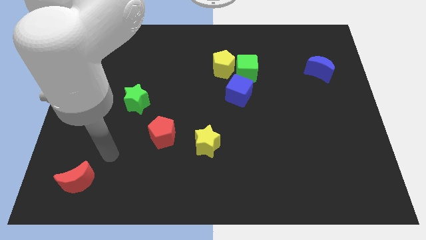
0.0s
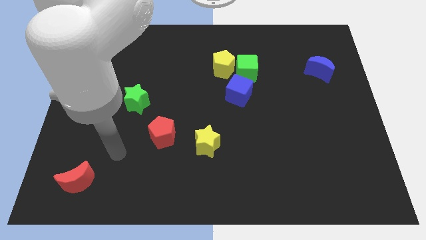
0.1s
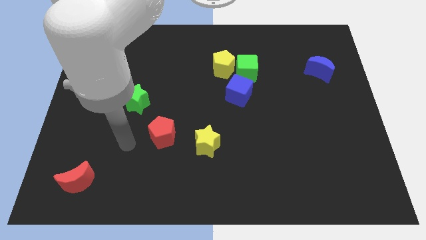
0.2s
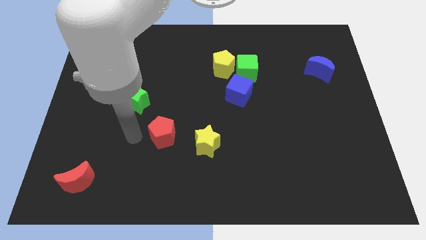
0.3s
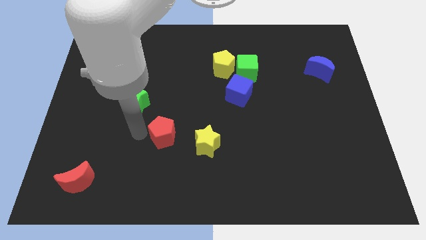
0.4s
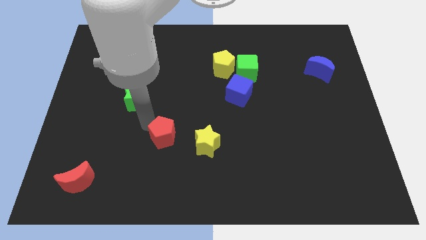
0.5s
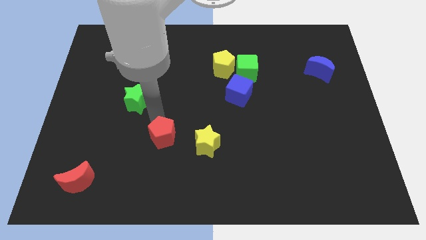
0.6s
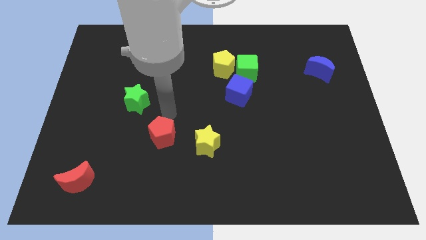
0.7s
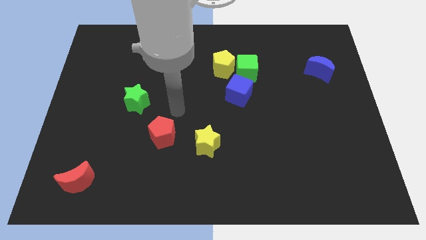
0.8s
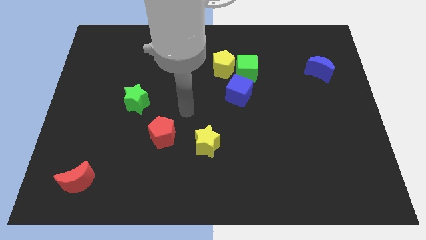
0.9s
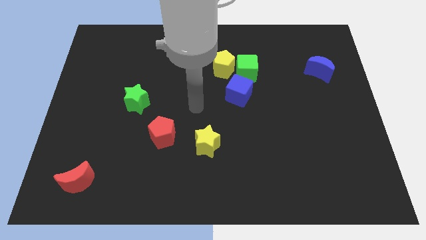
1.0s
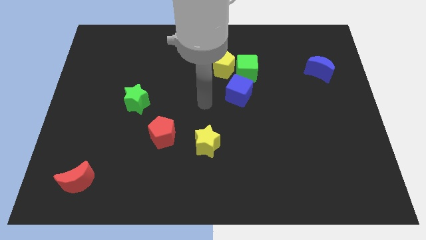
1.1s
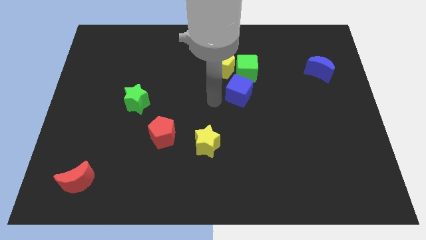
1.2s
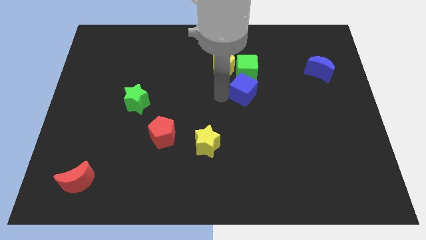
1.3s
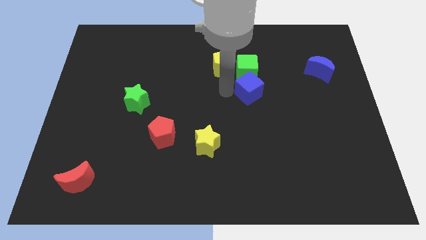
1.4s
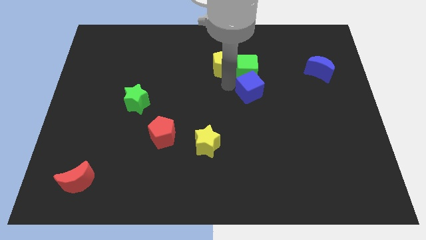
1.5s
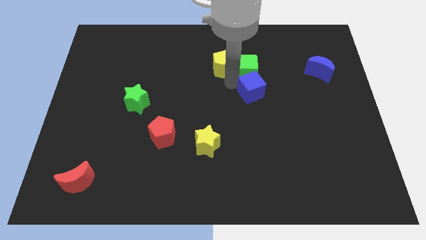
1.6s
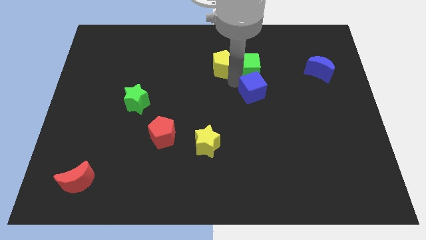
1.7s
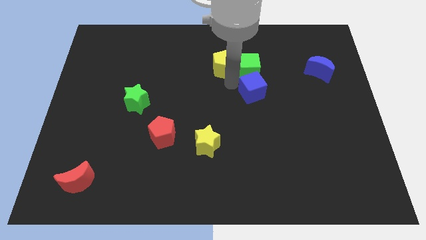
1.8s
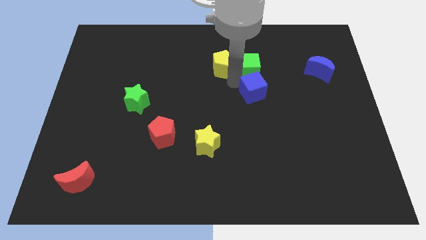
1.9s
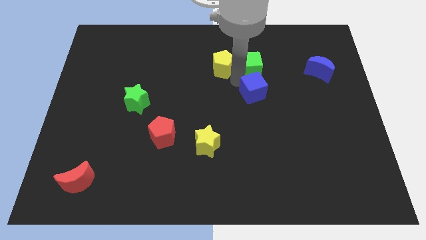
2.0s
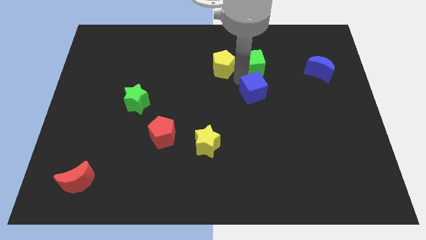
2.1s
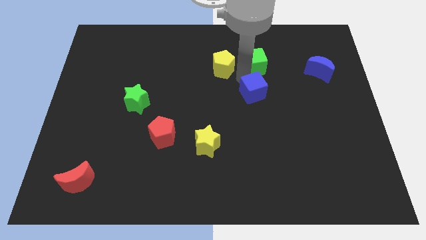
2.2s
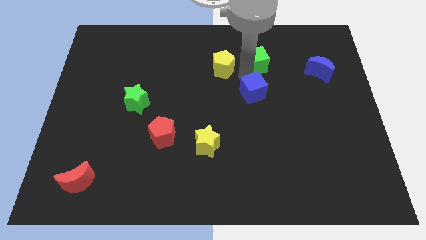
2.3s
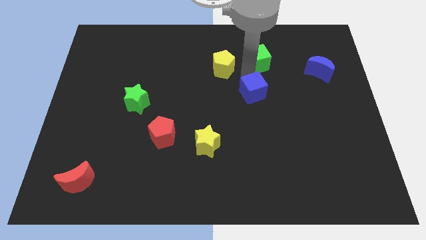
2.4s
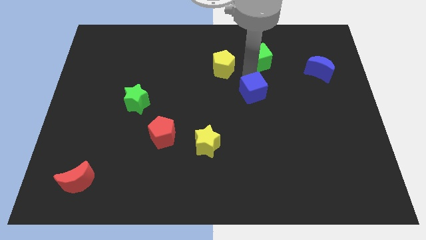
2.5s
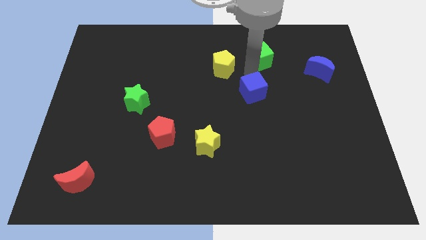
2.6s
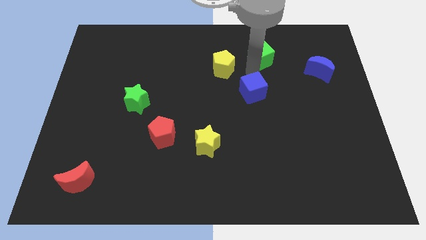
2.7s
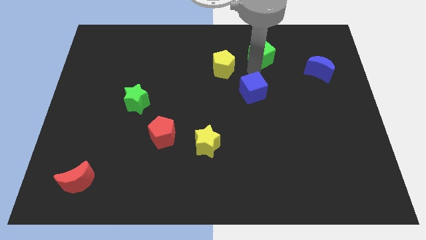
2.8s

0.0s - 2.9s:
pull the green cube apart from the yellow pentagon and blue cube

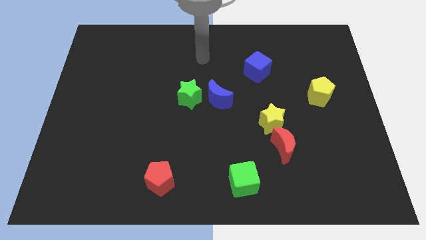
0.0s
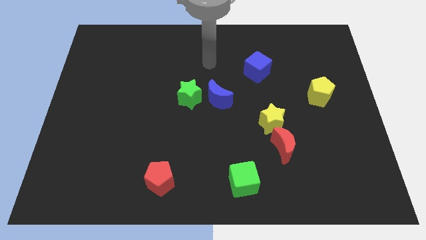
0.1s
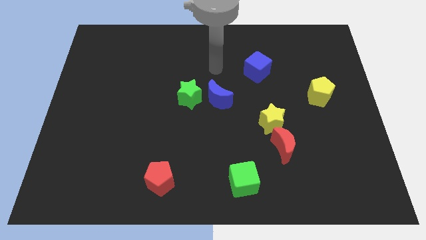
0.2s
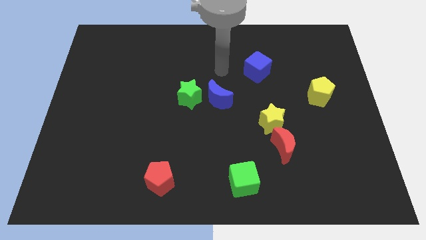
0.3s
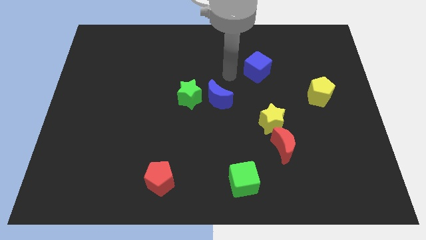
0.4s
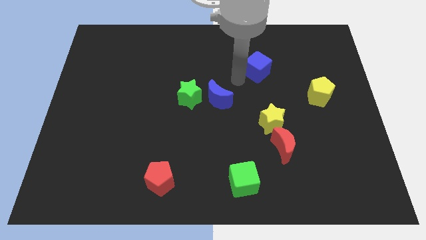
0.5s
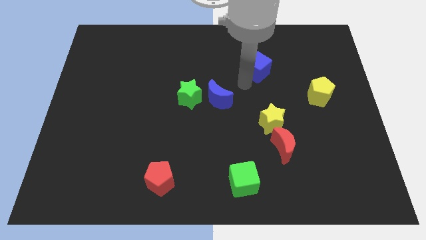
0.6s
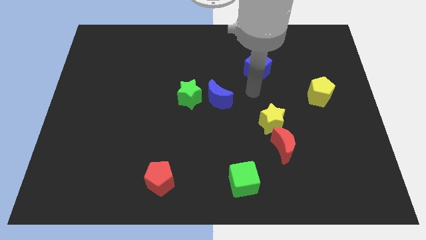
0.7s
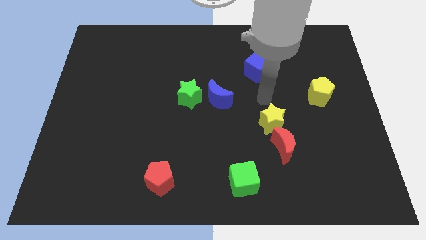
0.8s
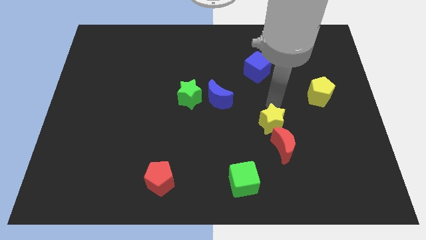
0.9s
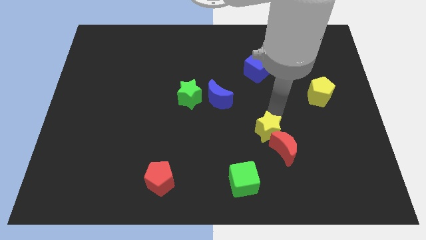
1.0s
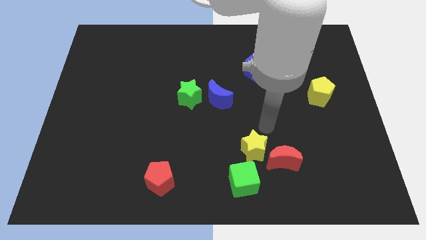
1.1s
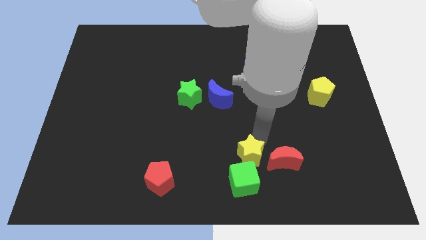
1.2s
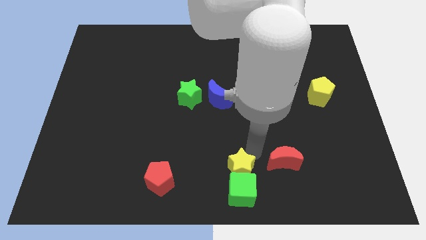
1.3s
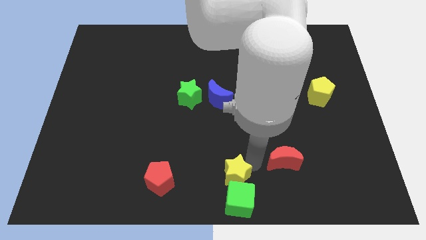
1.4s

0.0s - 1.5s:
separate the red moon from the yellow star

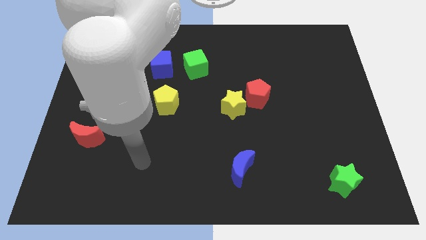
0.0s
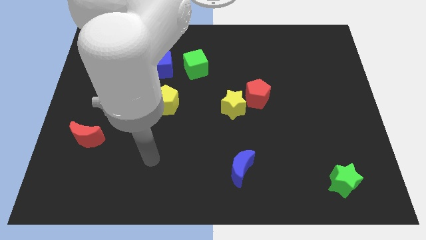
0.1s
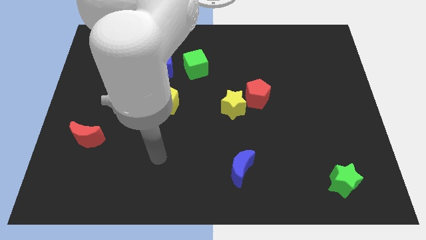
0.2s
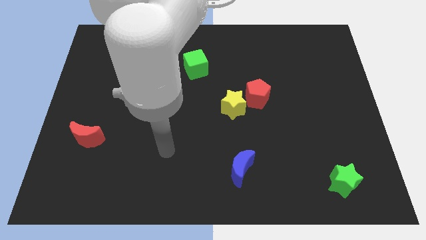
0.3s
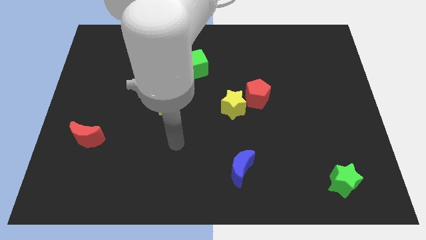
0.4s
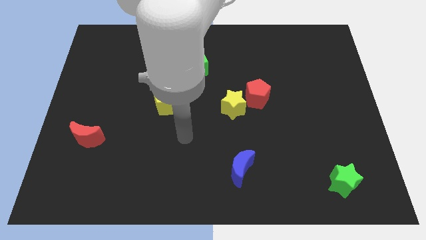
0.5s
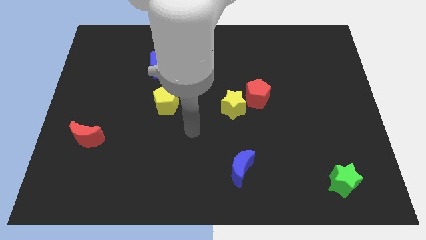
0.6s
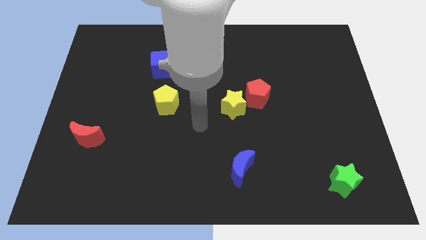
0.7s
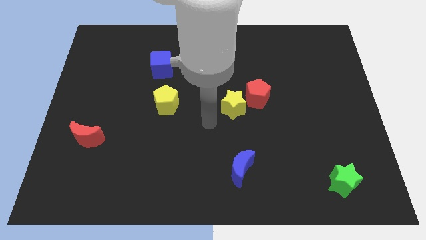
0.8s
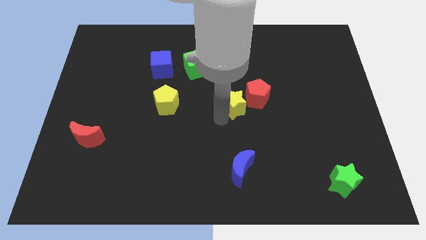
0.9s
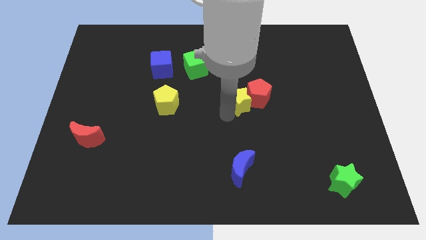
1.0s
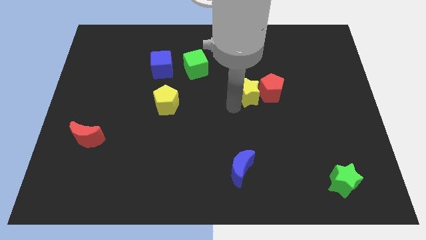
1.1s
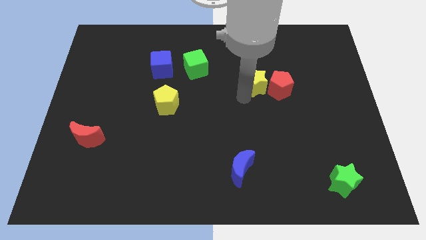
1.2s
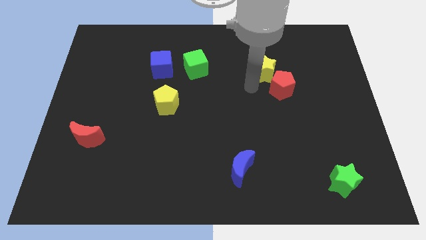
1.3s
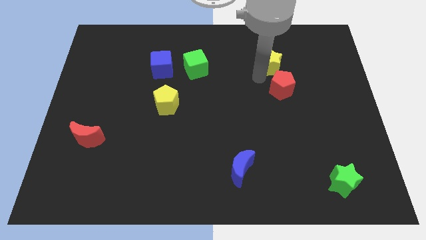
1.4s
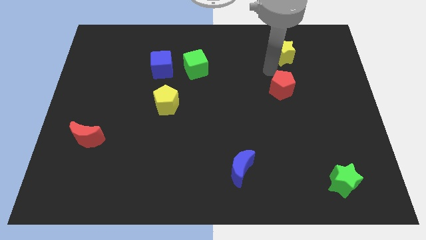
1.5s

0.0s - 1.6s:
pull the red pentagon apart from the yellow star

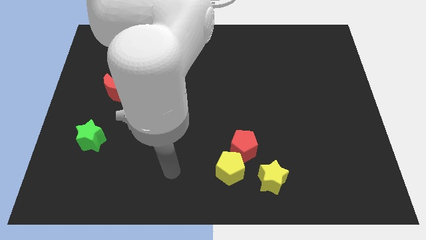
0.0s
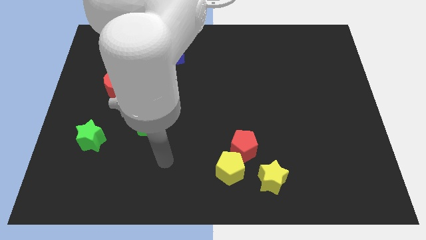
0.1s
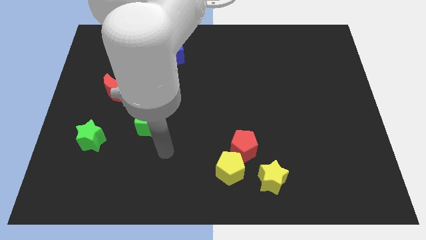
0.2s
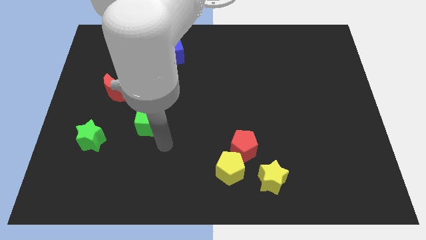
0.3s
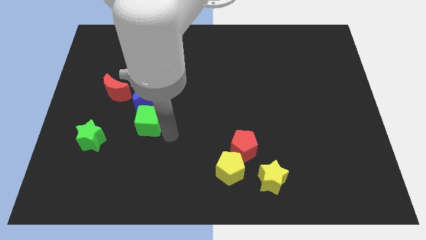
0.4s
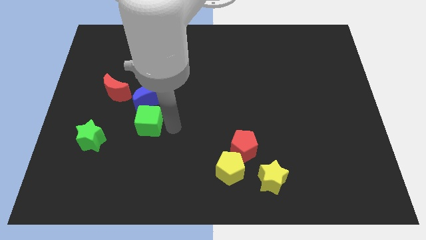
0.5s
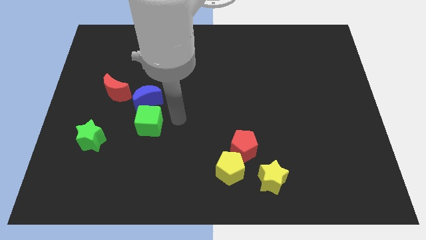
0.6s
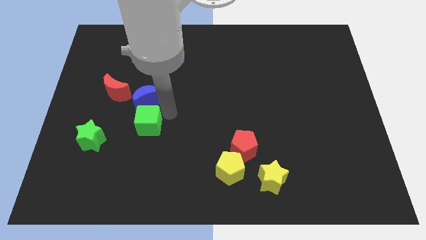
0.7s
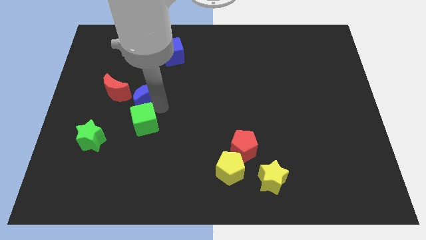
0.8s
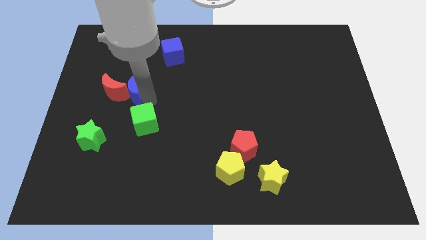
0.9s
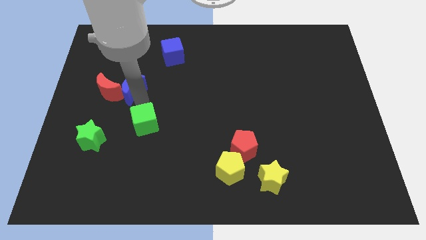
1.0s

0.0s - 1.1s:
separate the green cube from the blue moon

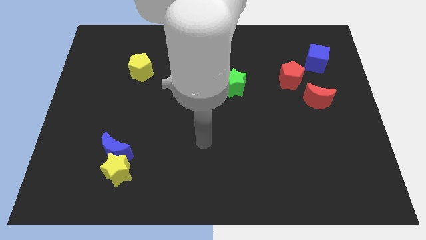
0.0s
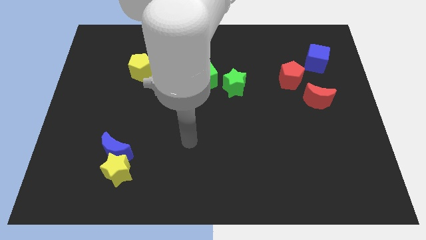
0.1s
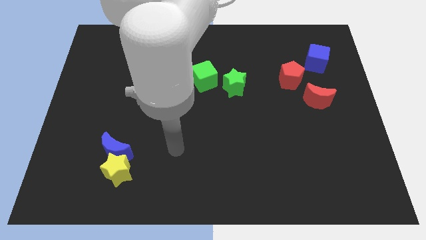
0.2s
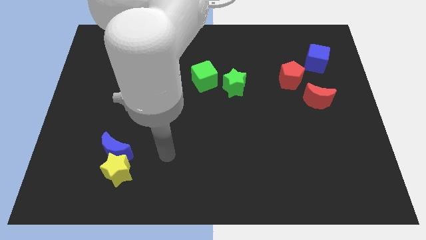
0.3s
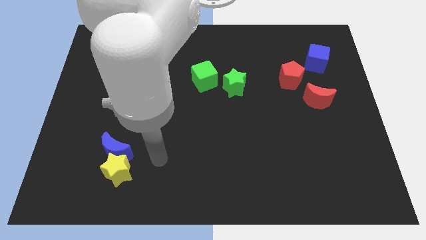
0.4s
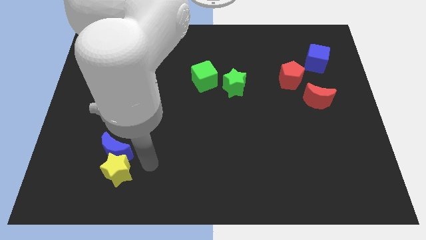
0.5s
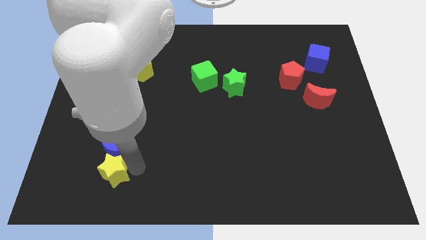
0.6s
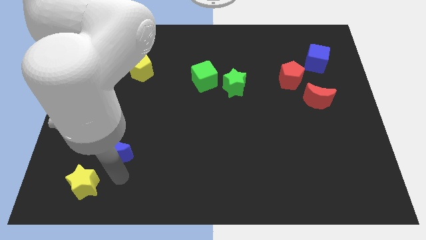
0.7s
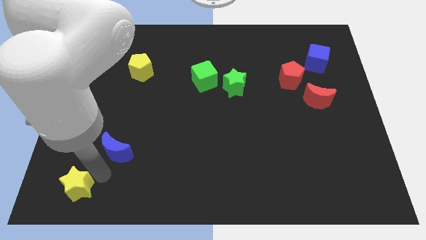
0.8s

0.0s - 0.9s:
separate the blue moon from the yellow star

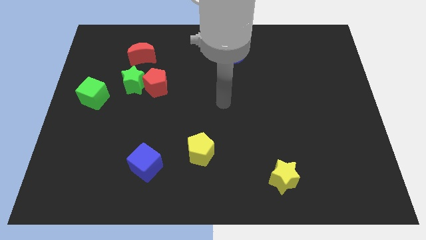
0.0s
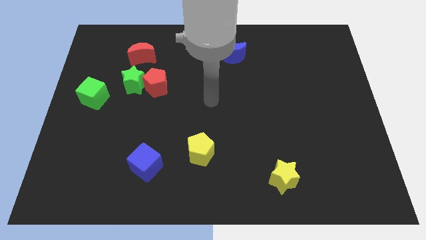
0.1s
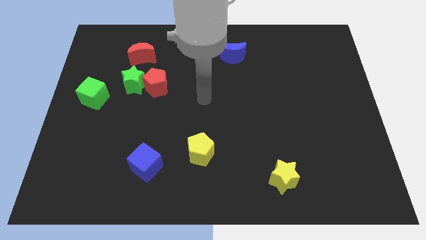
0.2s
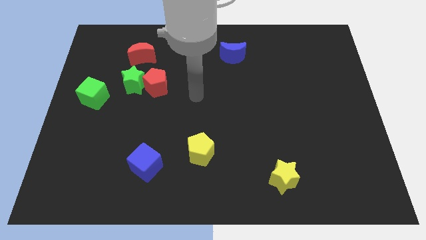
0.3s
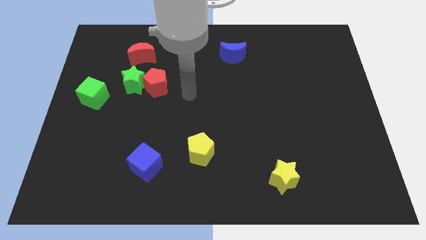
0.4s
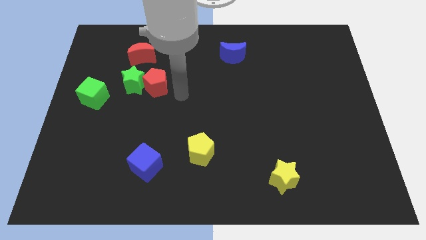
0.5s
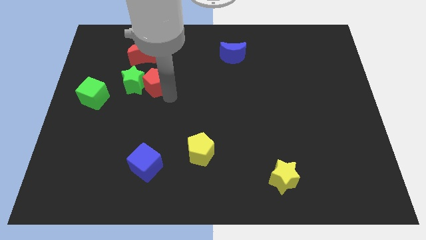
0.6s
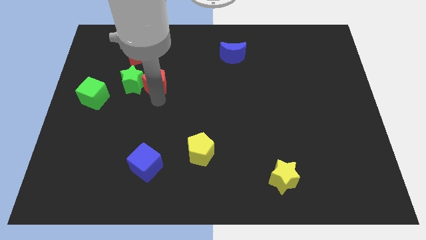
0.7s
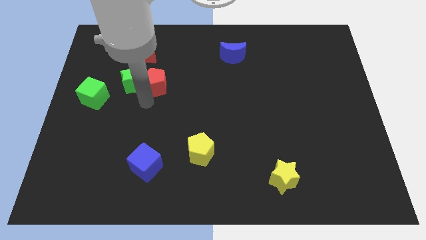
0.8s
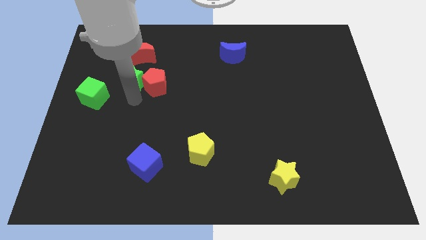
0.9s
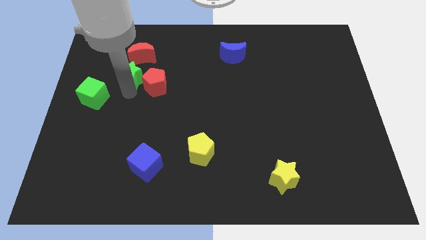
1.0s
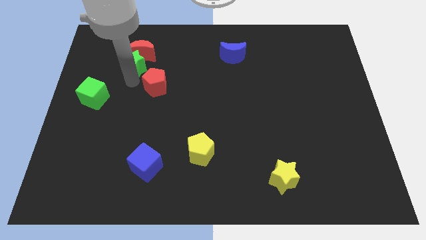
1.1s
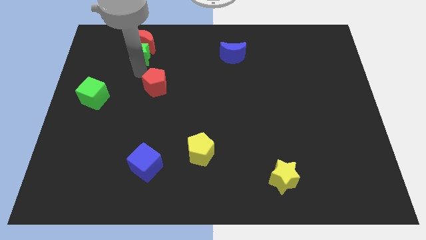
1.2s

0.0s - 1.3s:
separate the red pentagon from the green star
